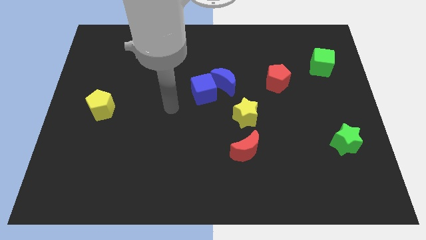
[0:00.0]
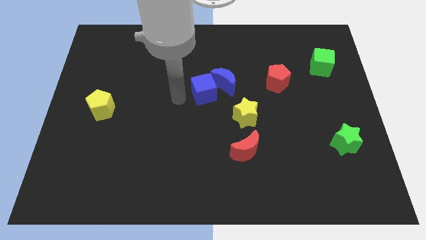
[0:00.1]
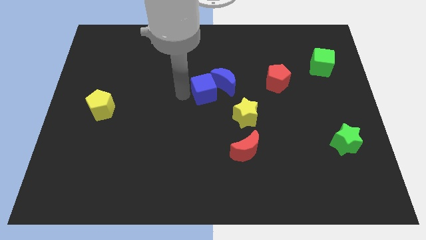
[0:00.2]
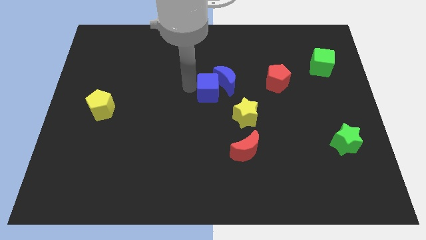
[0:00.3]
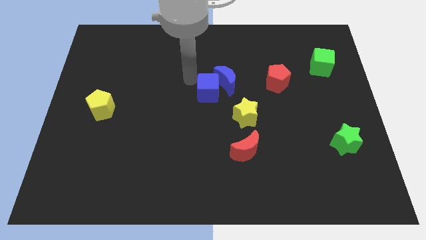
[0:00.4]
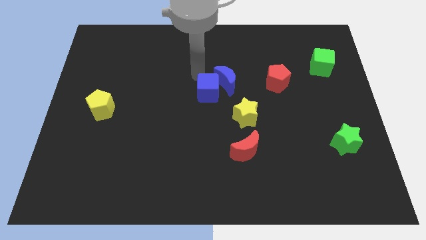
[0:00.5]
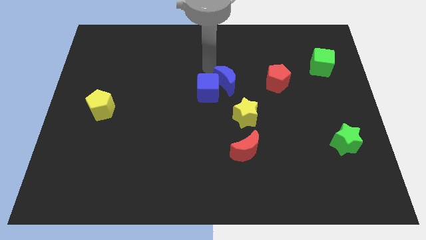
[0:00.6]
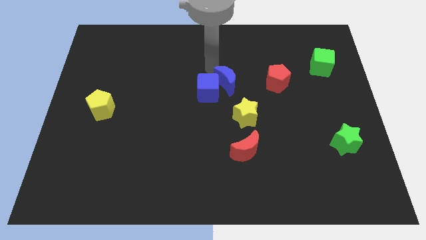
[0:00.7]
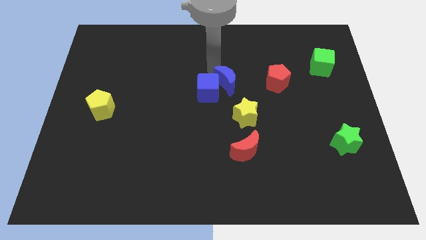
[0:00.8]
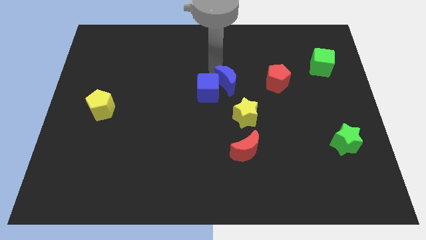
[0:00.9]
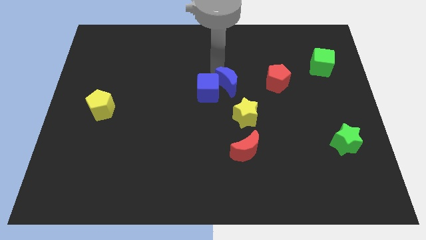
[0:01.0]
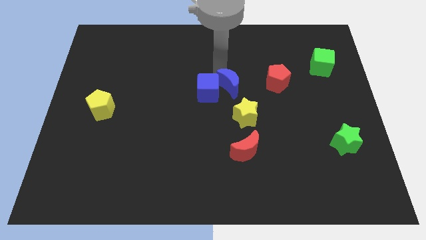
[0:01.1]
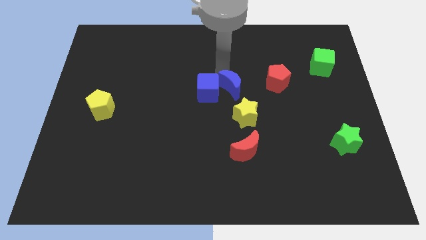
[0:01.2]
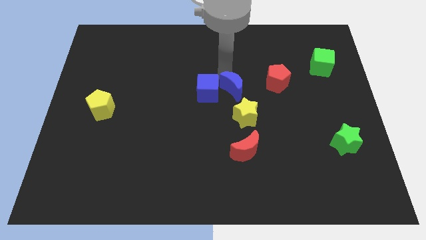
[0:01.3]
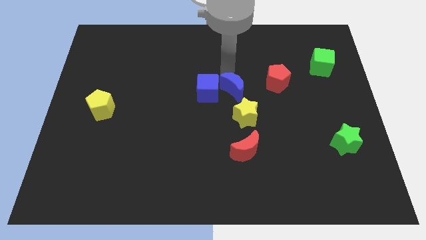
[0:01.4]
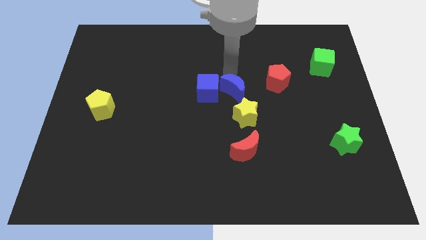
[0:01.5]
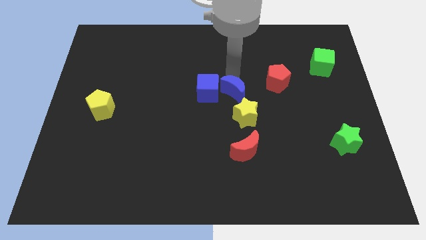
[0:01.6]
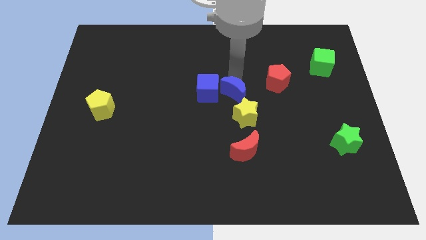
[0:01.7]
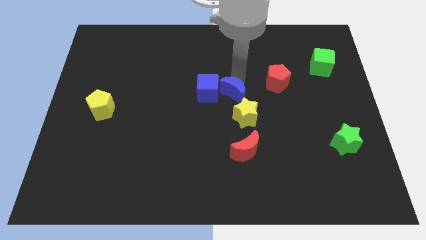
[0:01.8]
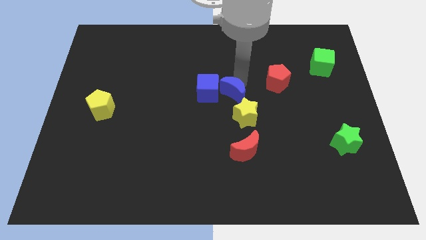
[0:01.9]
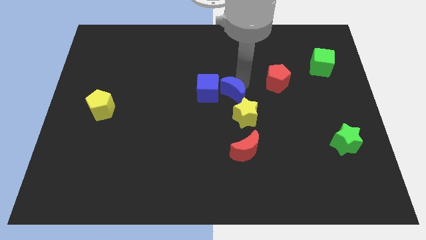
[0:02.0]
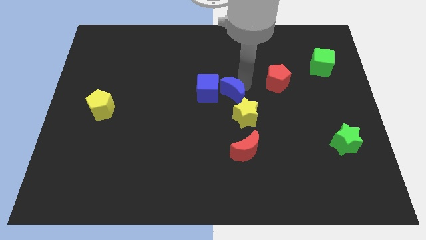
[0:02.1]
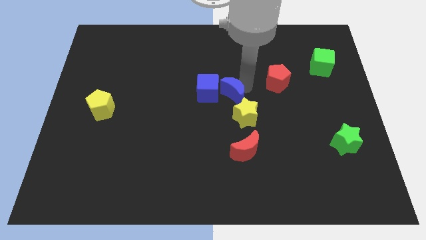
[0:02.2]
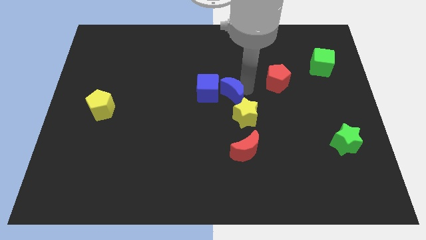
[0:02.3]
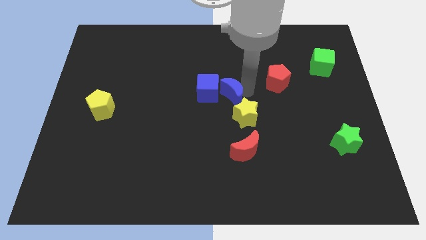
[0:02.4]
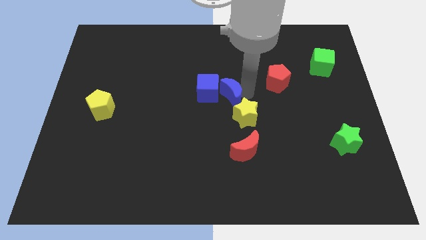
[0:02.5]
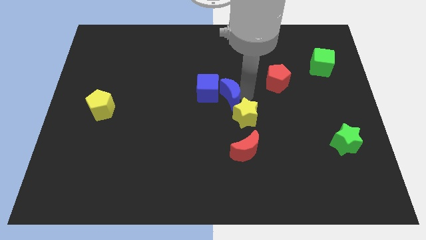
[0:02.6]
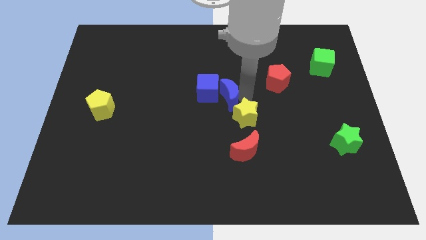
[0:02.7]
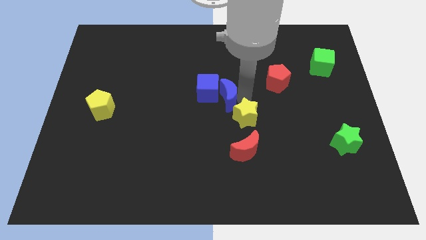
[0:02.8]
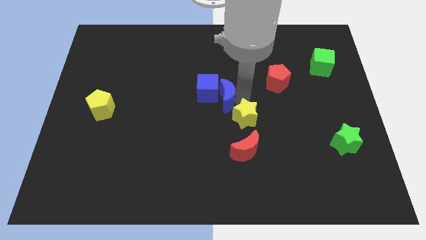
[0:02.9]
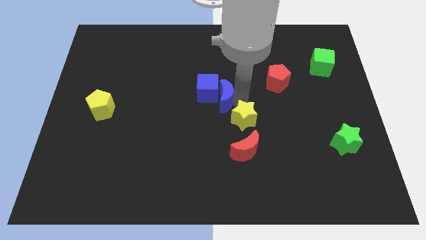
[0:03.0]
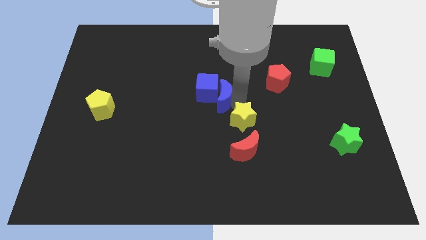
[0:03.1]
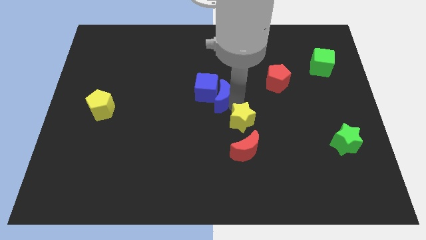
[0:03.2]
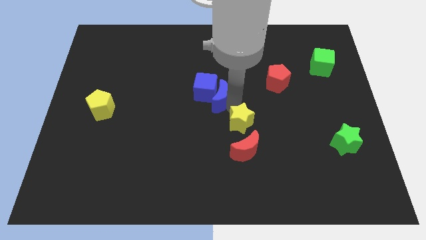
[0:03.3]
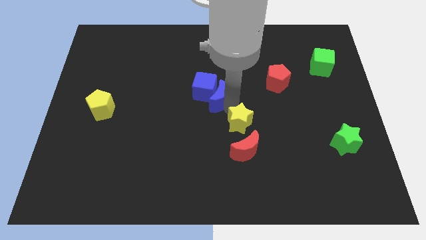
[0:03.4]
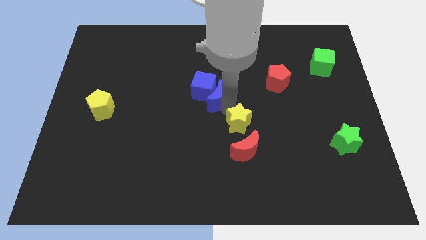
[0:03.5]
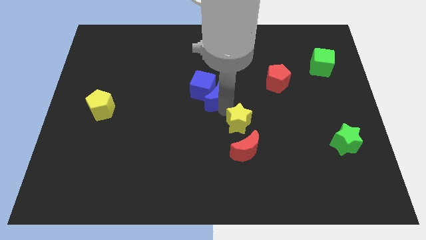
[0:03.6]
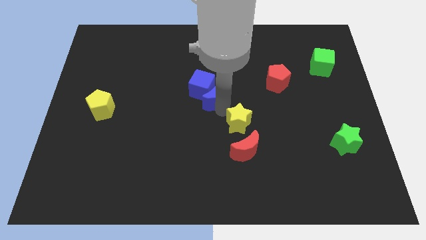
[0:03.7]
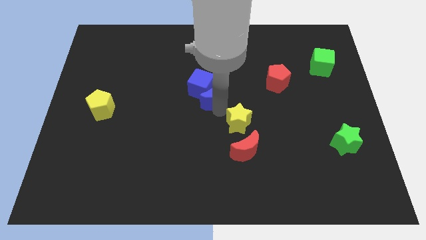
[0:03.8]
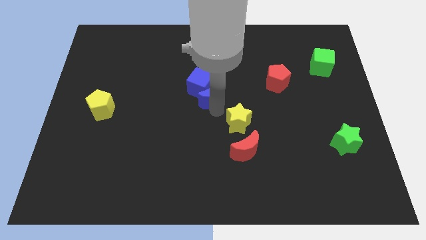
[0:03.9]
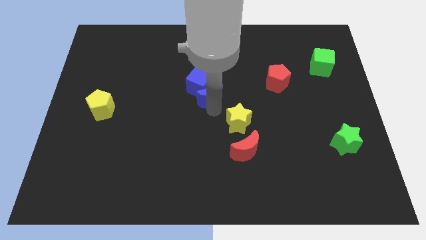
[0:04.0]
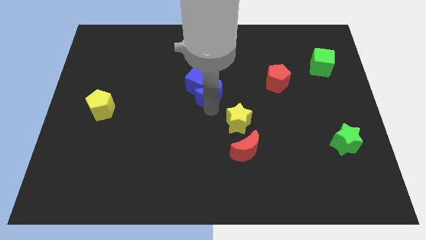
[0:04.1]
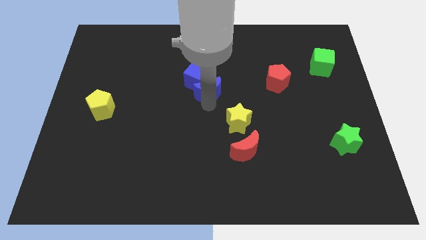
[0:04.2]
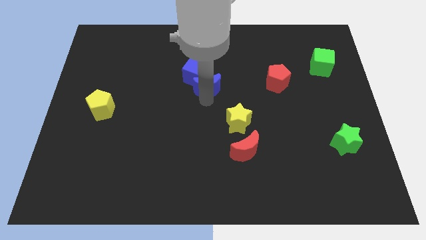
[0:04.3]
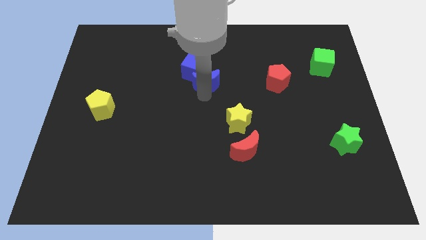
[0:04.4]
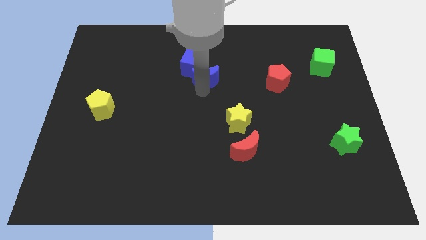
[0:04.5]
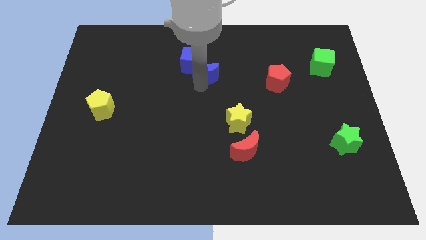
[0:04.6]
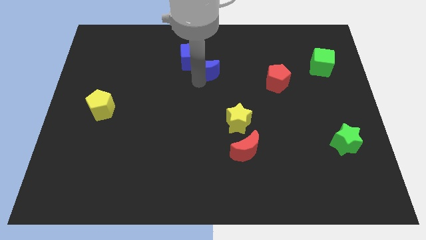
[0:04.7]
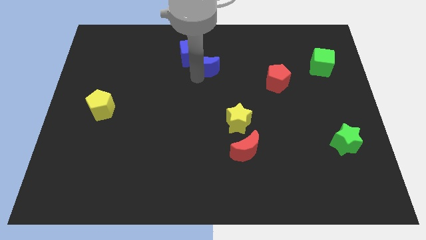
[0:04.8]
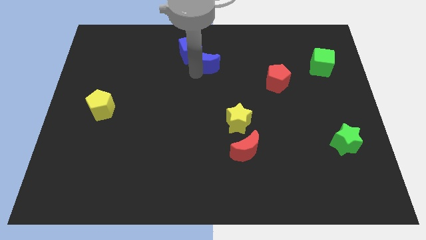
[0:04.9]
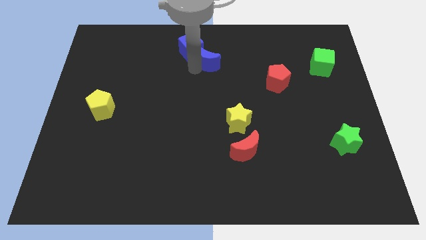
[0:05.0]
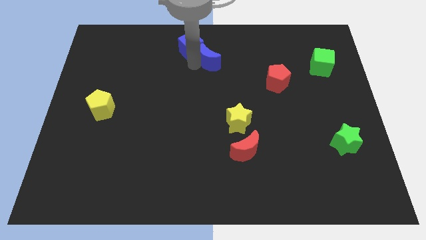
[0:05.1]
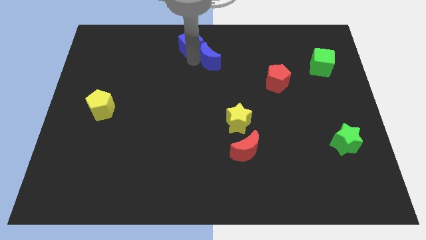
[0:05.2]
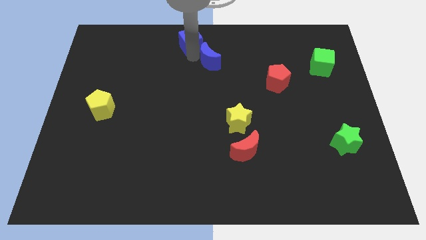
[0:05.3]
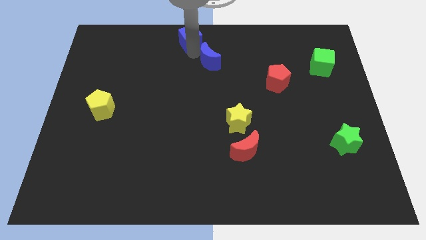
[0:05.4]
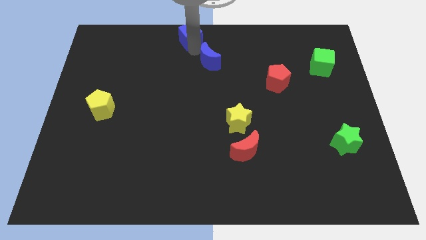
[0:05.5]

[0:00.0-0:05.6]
separate the blue moon from the blue cube

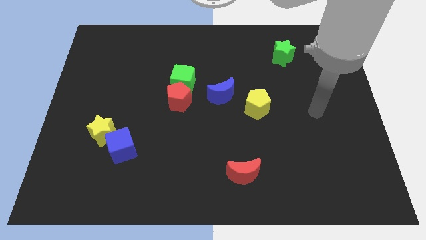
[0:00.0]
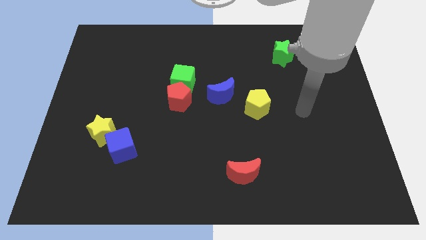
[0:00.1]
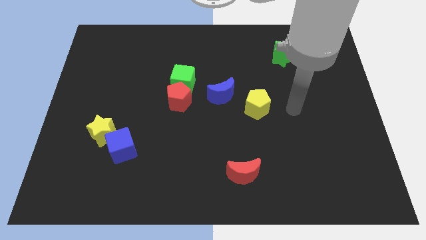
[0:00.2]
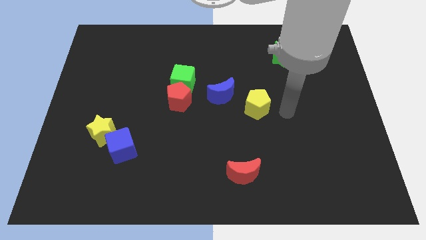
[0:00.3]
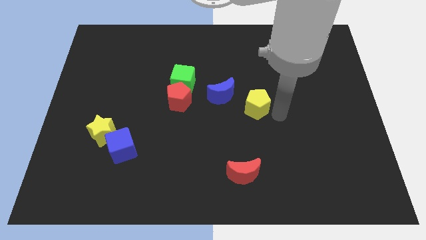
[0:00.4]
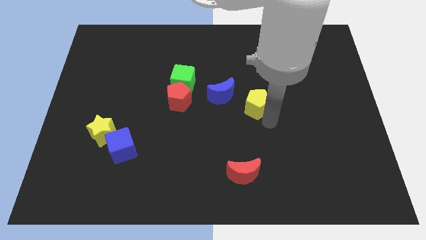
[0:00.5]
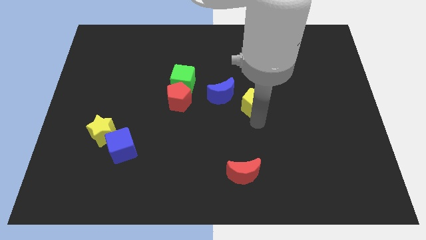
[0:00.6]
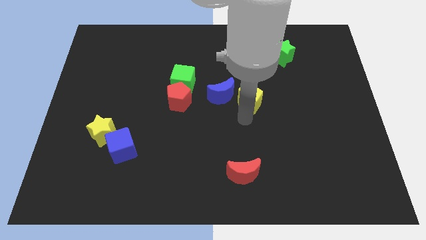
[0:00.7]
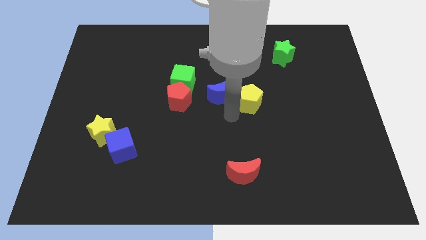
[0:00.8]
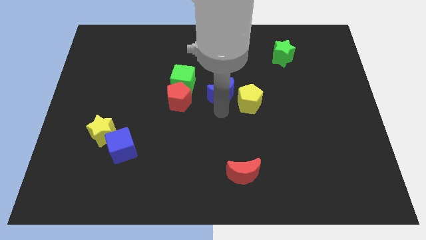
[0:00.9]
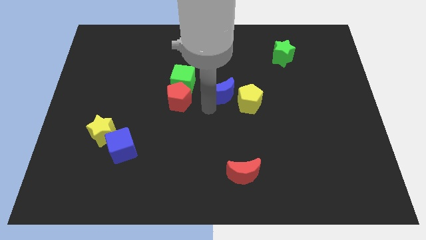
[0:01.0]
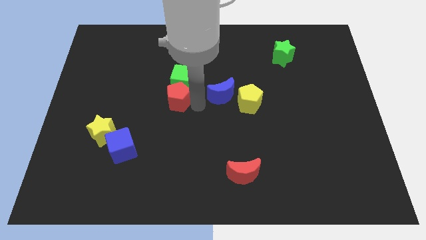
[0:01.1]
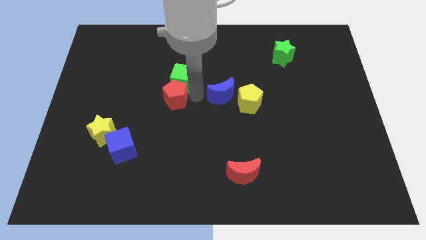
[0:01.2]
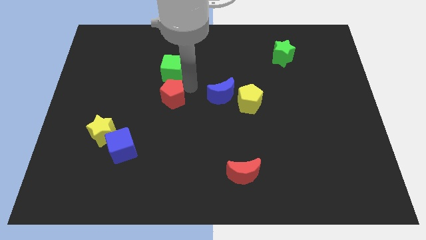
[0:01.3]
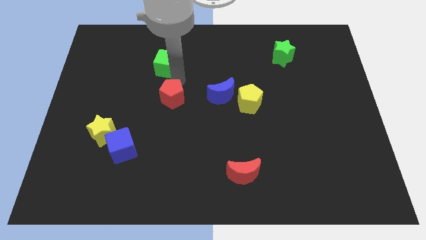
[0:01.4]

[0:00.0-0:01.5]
move the red pentagon away from the green cube

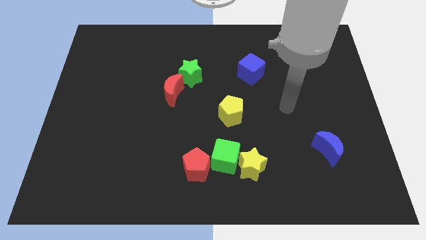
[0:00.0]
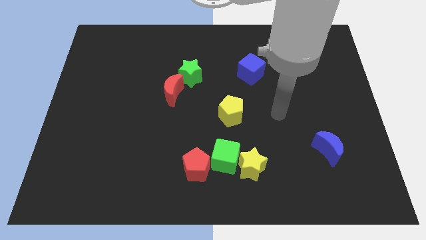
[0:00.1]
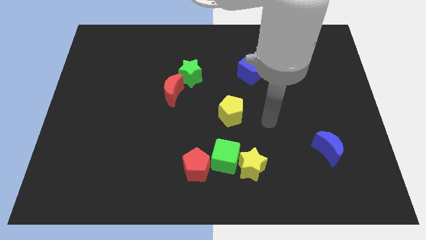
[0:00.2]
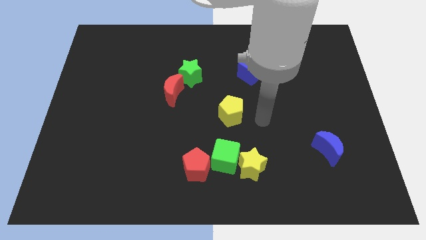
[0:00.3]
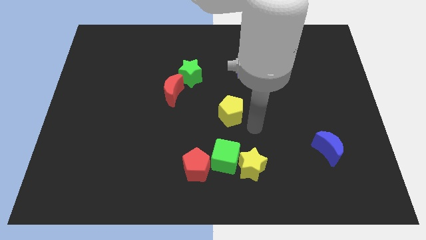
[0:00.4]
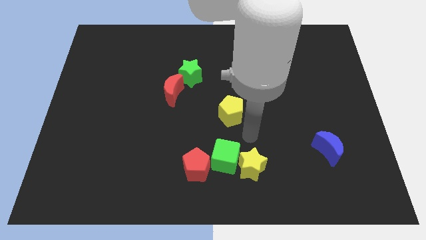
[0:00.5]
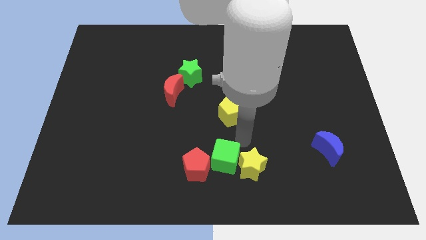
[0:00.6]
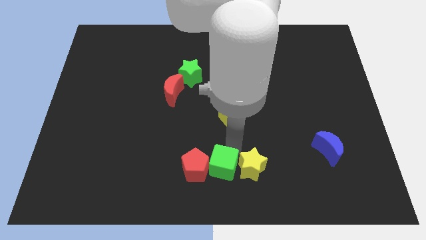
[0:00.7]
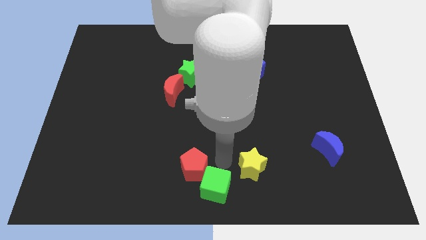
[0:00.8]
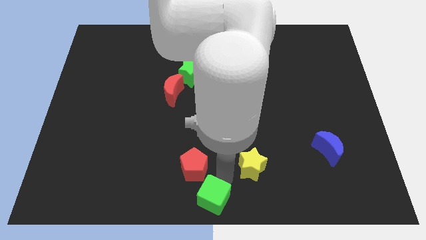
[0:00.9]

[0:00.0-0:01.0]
pull the yellow star apart from the green cube

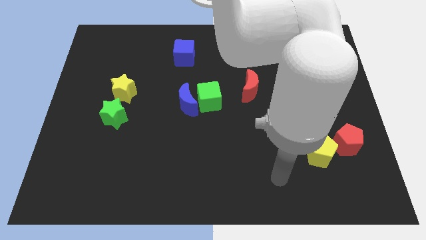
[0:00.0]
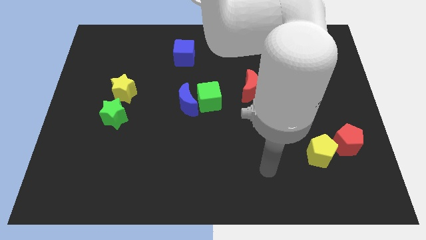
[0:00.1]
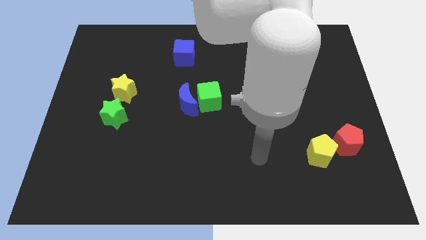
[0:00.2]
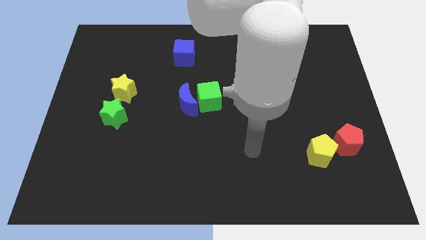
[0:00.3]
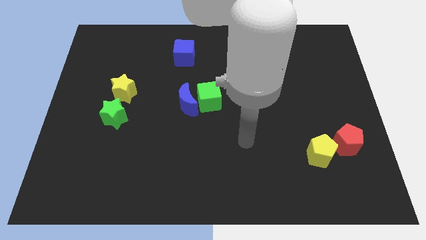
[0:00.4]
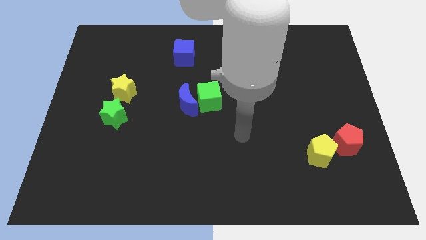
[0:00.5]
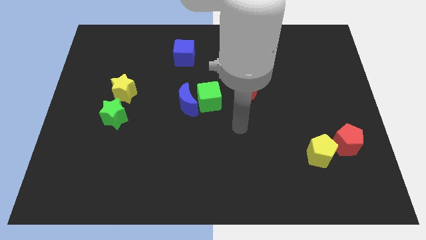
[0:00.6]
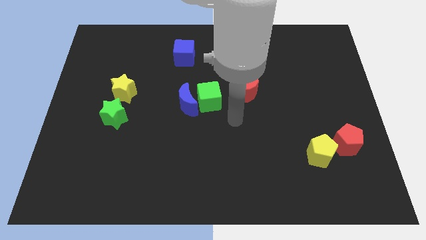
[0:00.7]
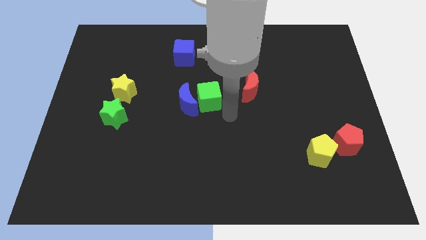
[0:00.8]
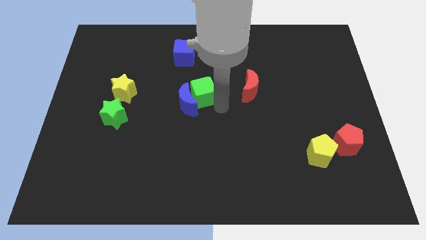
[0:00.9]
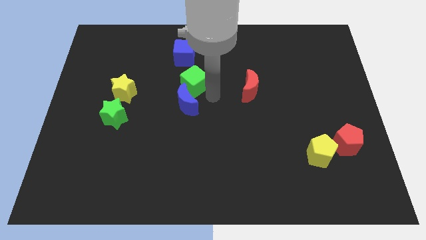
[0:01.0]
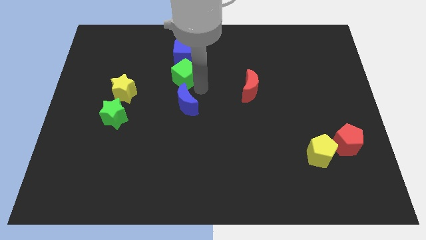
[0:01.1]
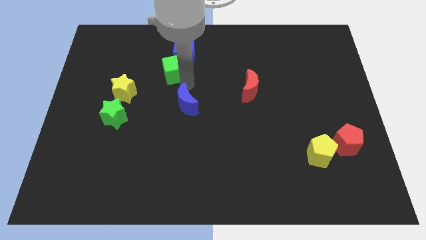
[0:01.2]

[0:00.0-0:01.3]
pull the blue moon apart from the green cube
